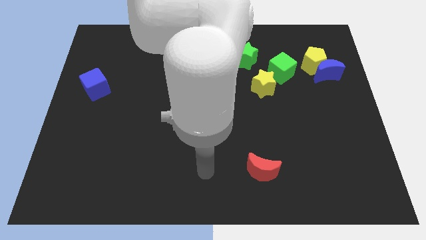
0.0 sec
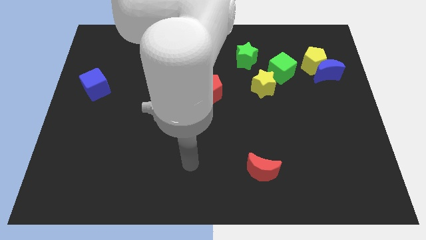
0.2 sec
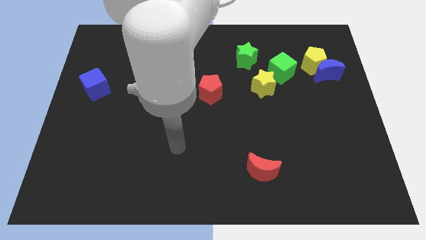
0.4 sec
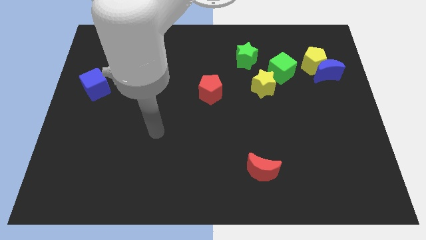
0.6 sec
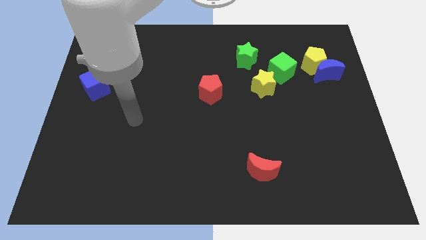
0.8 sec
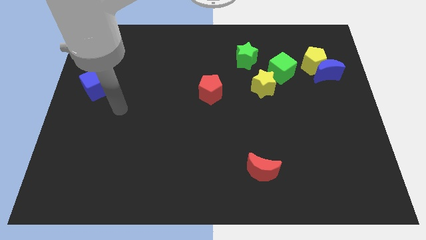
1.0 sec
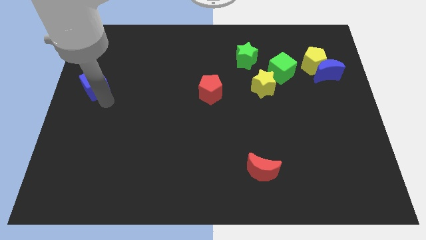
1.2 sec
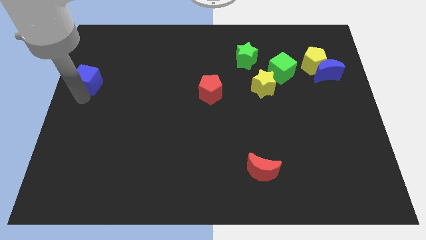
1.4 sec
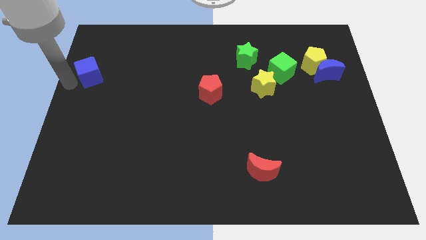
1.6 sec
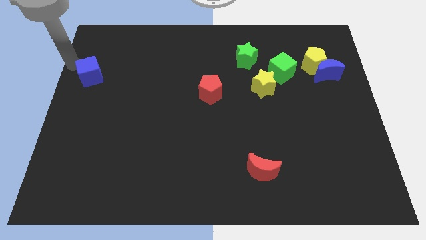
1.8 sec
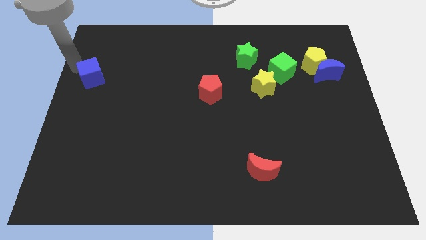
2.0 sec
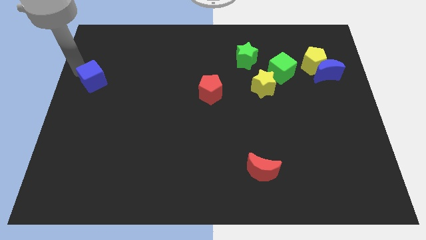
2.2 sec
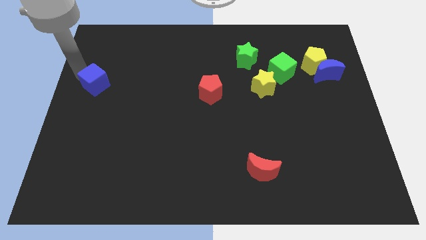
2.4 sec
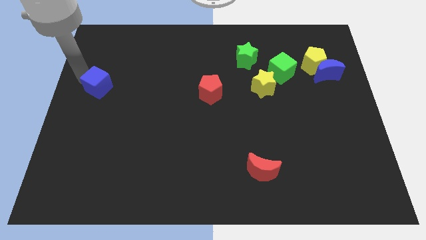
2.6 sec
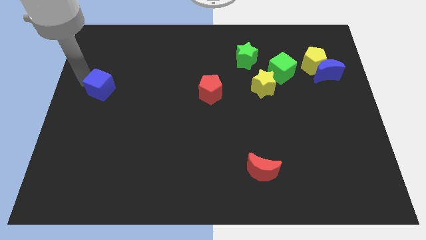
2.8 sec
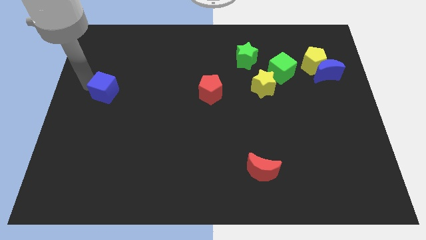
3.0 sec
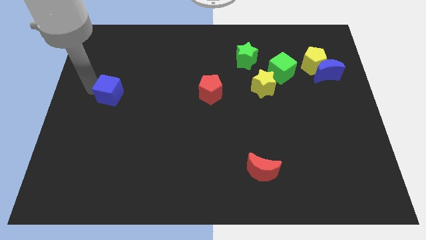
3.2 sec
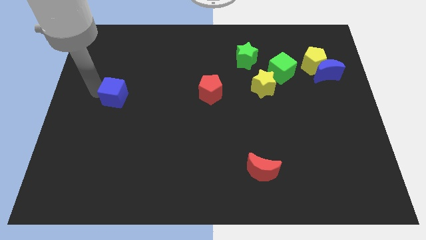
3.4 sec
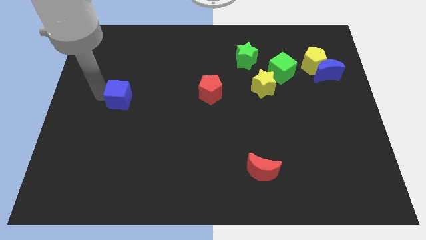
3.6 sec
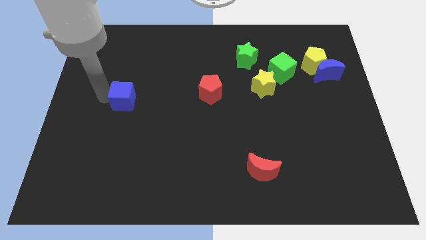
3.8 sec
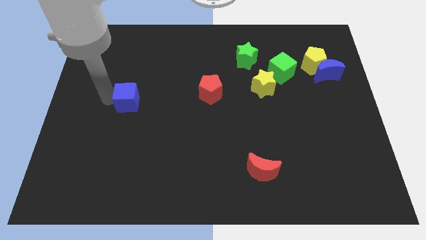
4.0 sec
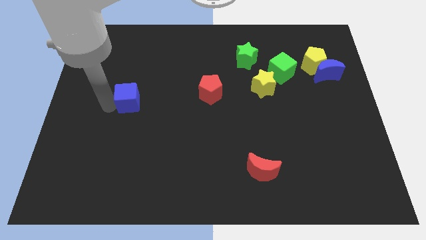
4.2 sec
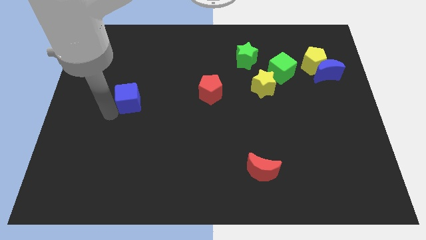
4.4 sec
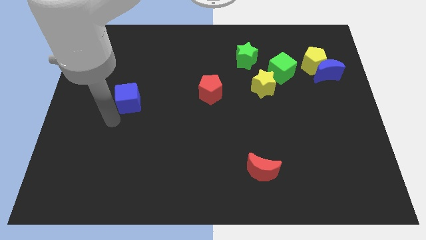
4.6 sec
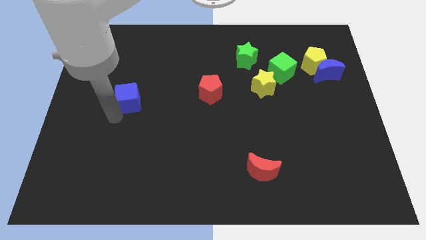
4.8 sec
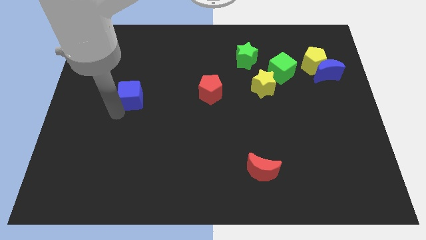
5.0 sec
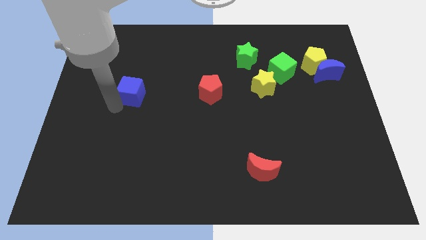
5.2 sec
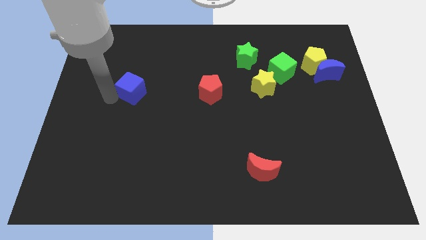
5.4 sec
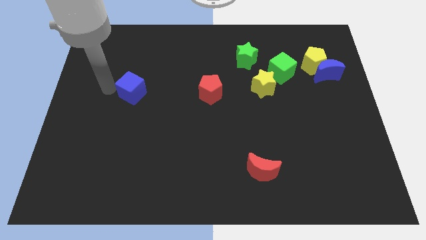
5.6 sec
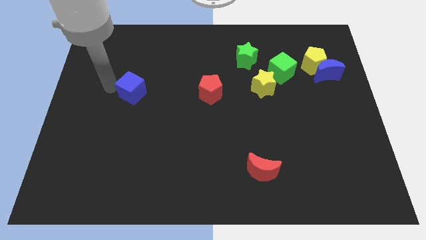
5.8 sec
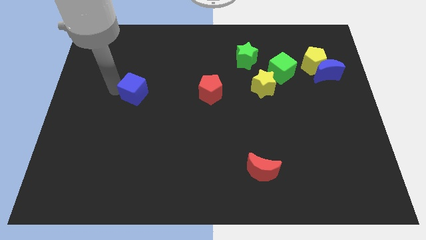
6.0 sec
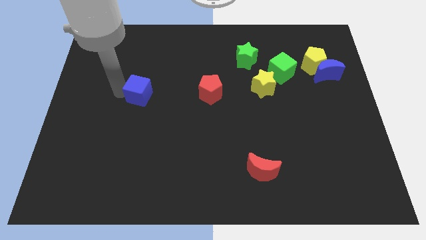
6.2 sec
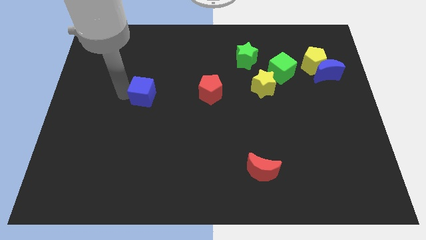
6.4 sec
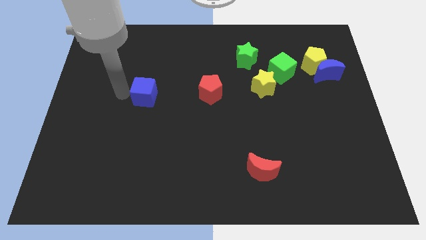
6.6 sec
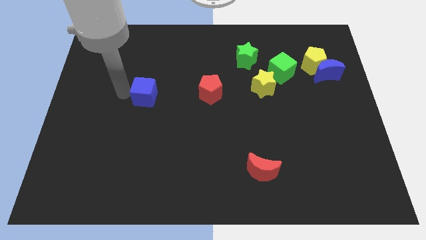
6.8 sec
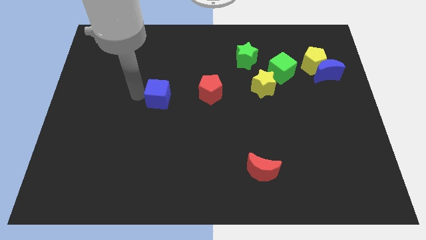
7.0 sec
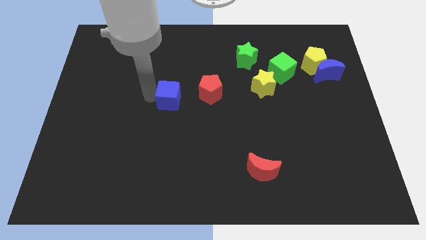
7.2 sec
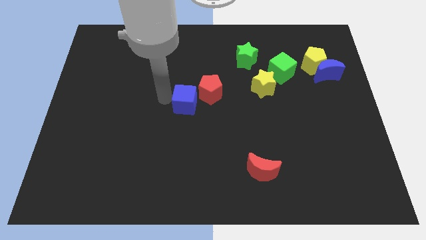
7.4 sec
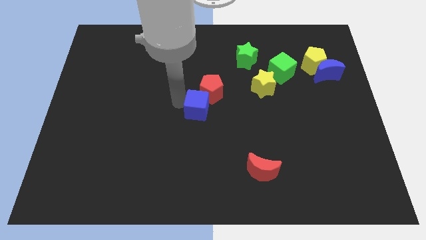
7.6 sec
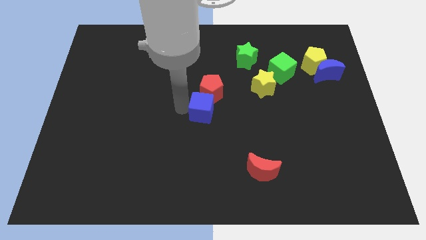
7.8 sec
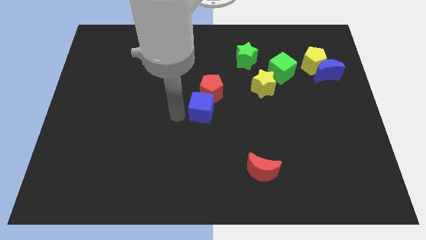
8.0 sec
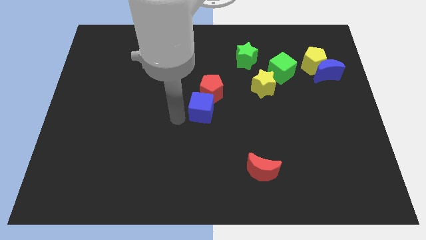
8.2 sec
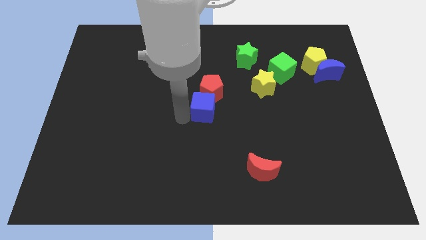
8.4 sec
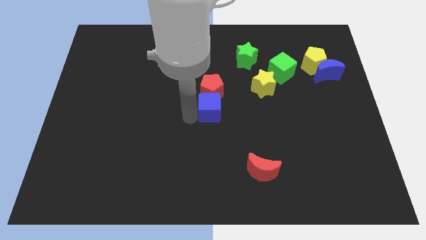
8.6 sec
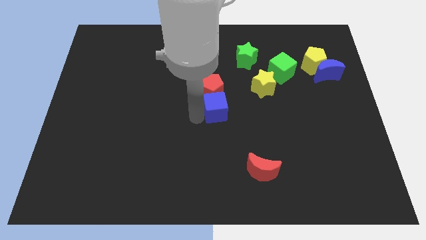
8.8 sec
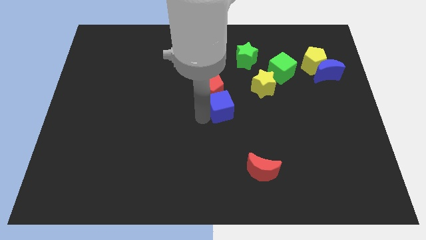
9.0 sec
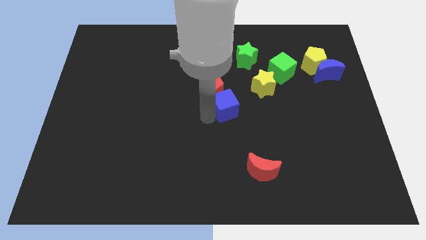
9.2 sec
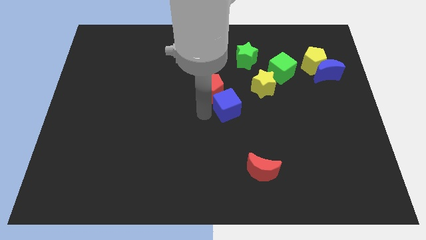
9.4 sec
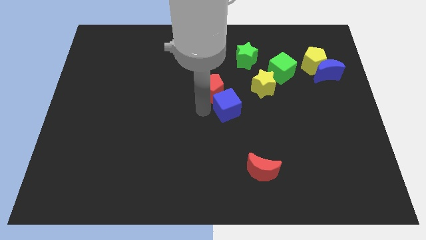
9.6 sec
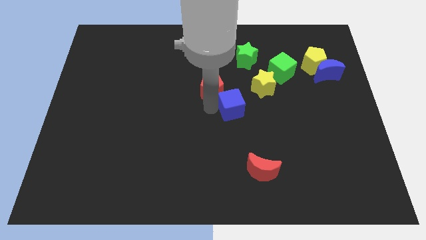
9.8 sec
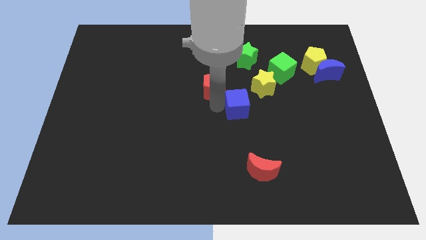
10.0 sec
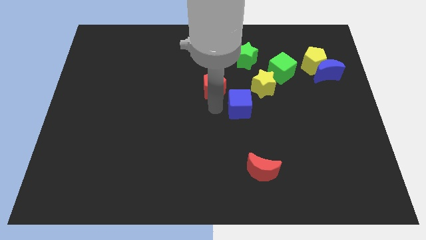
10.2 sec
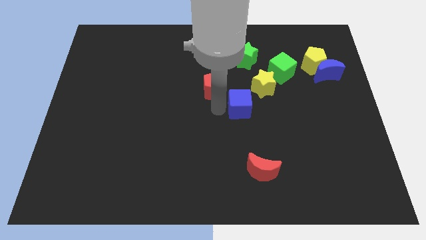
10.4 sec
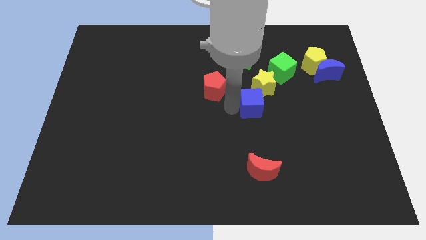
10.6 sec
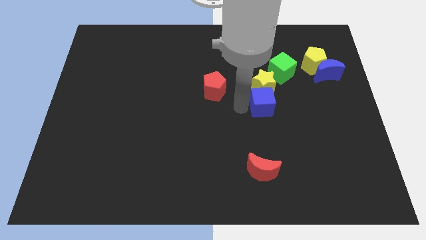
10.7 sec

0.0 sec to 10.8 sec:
put the blue cube to the bottom right side of the yellow star

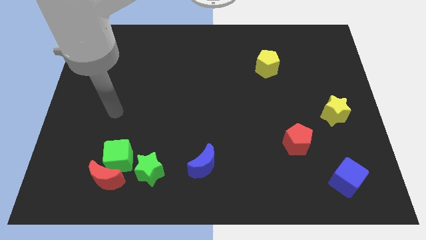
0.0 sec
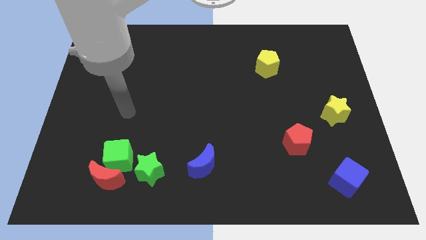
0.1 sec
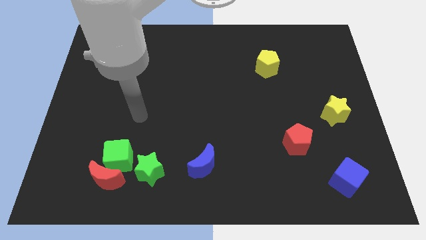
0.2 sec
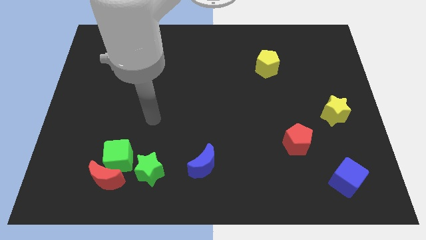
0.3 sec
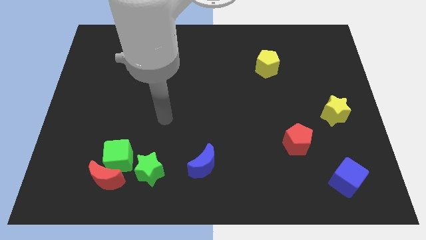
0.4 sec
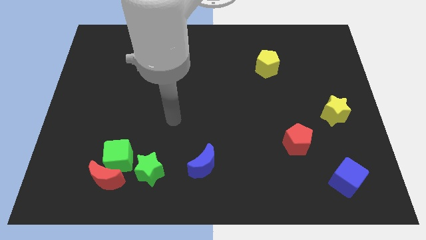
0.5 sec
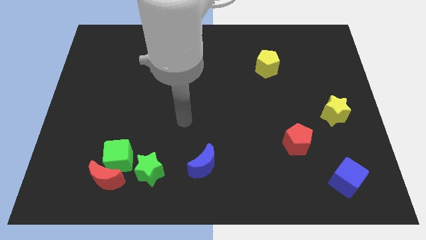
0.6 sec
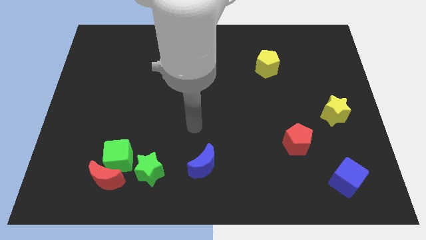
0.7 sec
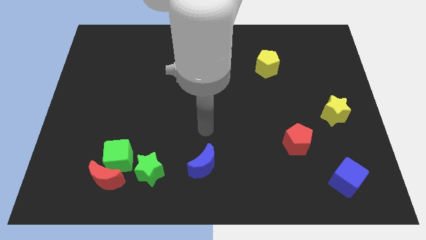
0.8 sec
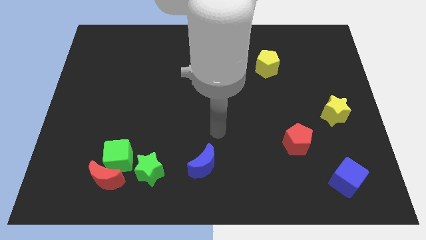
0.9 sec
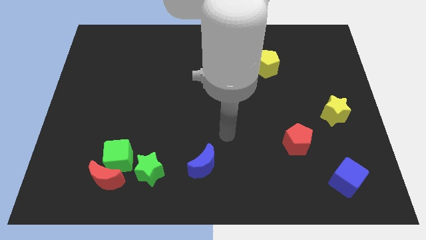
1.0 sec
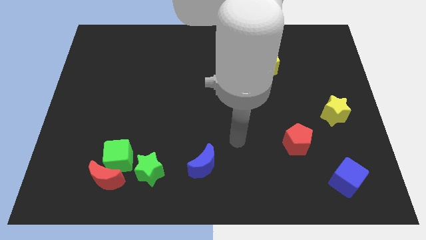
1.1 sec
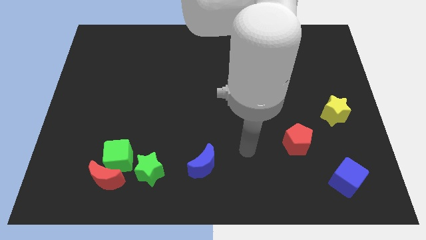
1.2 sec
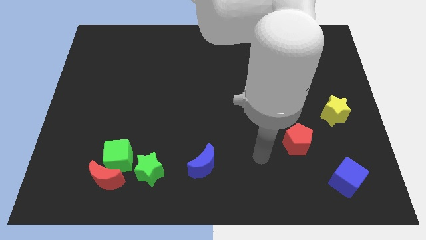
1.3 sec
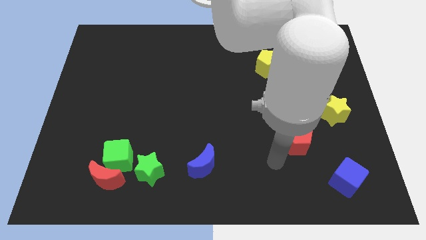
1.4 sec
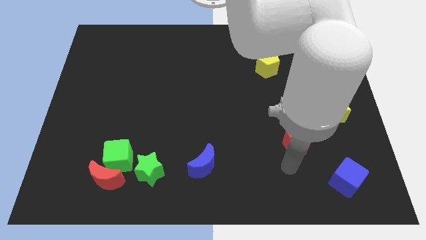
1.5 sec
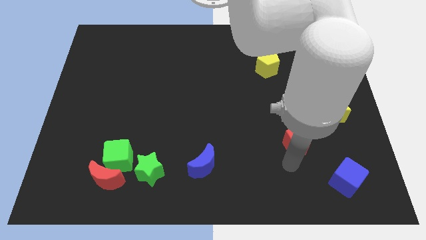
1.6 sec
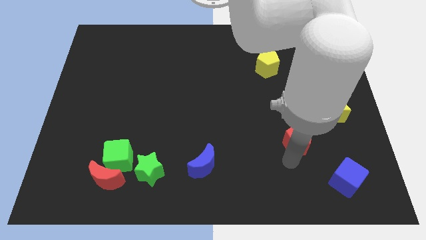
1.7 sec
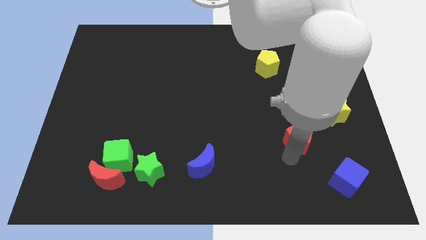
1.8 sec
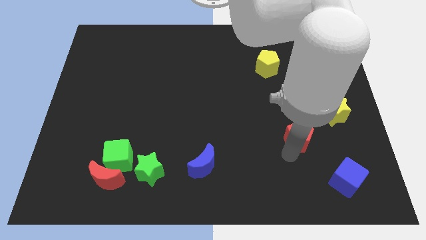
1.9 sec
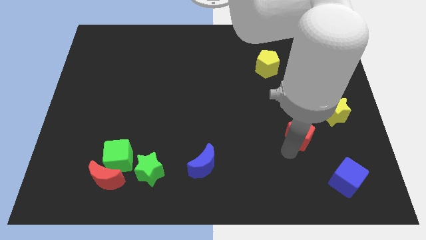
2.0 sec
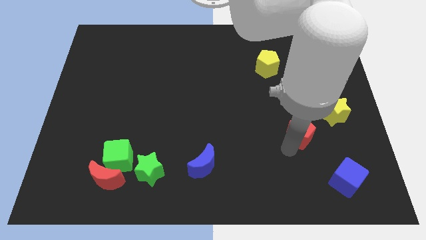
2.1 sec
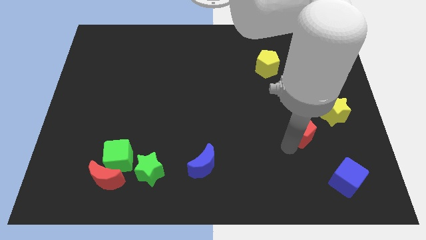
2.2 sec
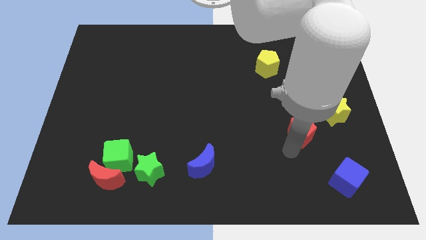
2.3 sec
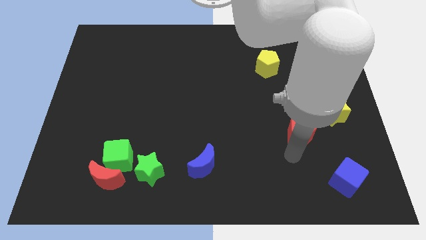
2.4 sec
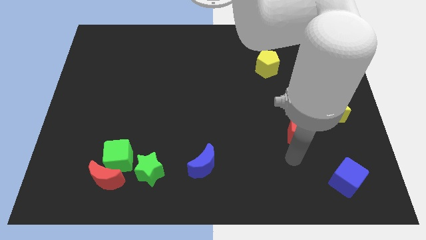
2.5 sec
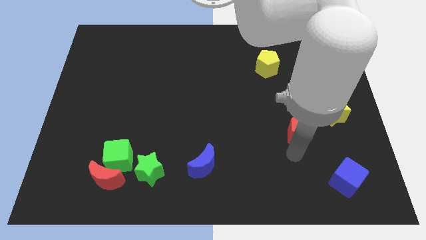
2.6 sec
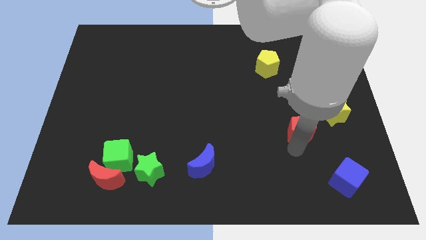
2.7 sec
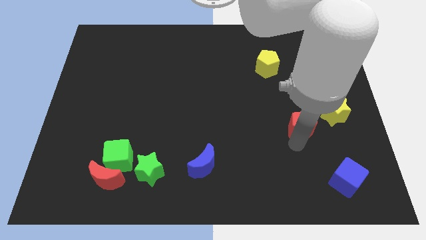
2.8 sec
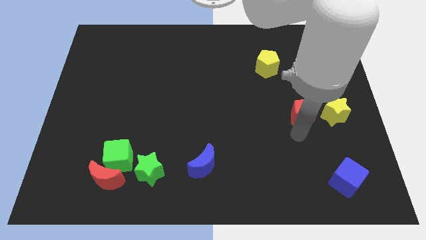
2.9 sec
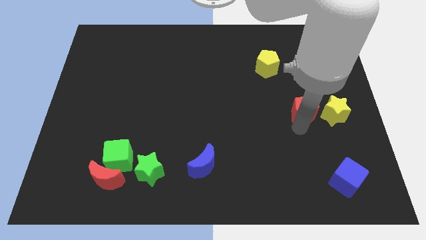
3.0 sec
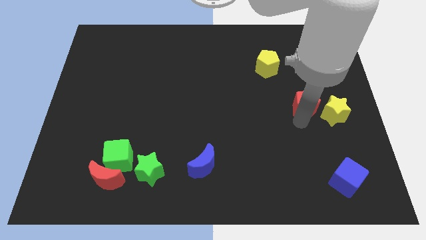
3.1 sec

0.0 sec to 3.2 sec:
put the red pentagon diagonally up and to the left of the yellow star
